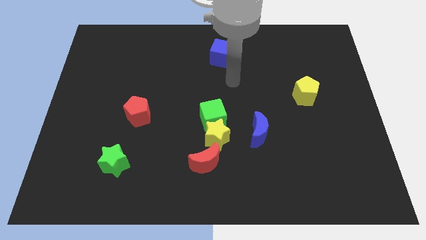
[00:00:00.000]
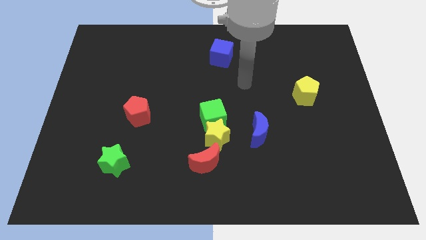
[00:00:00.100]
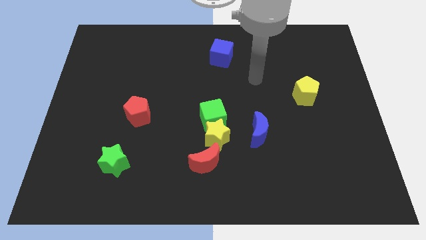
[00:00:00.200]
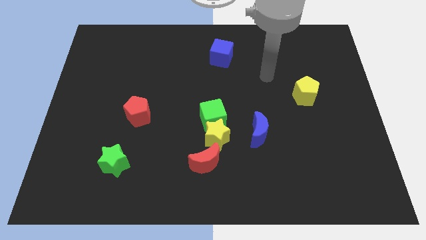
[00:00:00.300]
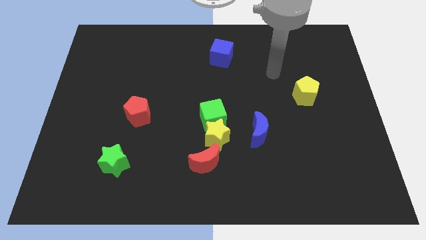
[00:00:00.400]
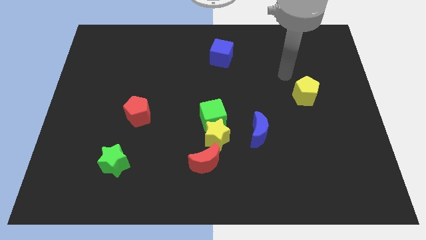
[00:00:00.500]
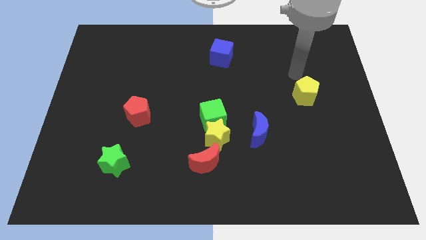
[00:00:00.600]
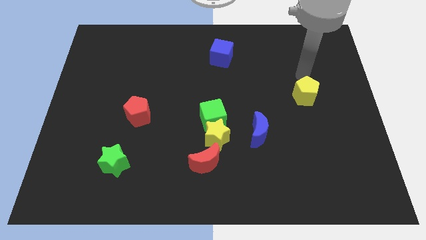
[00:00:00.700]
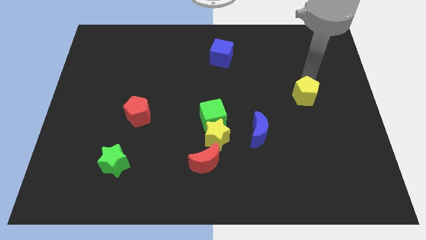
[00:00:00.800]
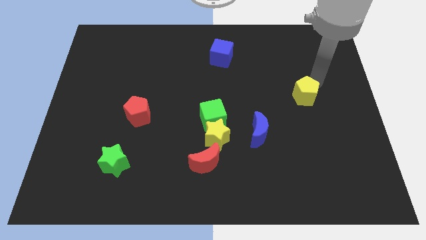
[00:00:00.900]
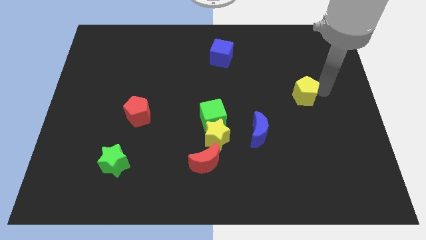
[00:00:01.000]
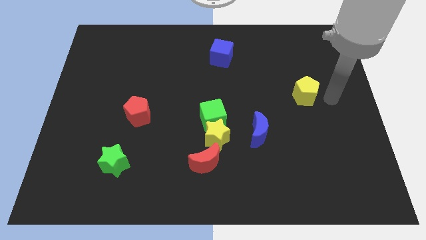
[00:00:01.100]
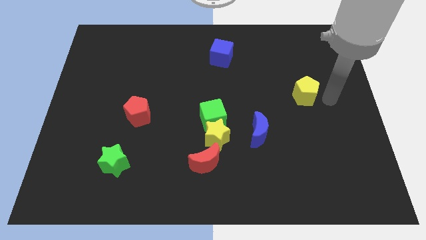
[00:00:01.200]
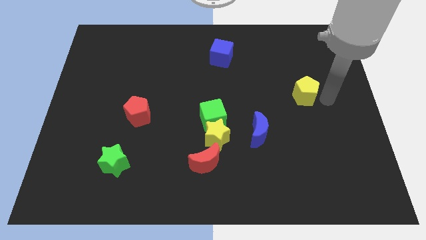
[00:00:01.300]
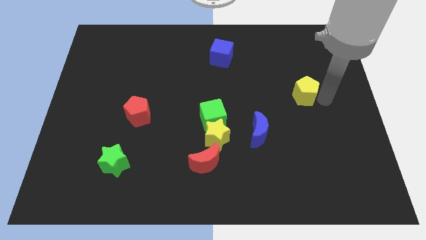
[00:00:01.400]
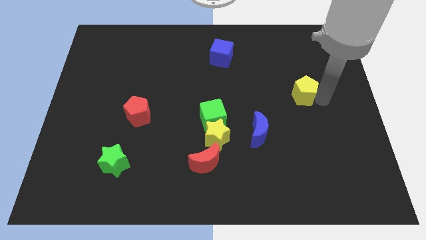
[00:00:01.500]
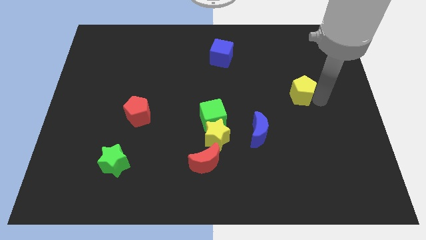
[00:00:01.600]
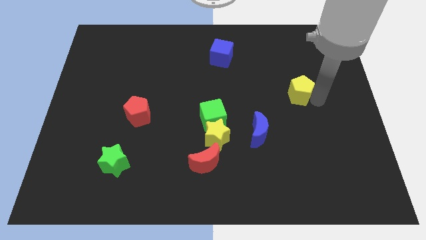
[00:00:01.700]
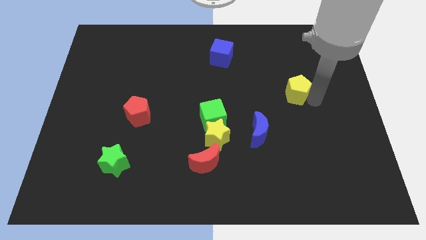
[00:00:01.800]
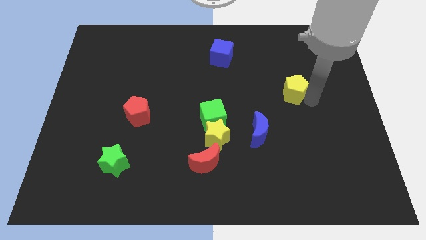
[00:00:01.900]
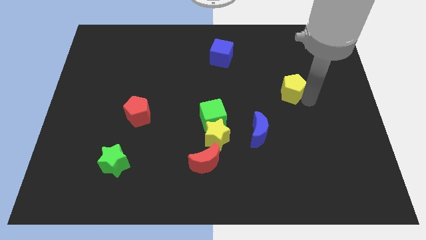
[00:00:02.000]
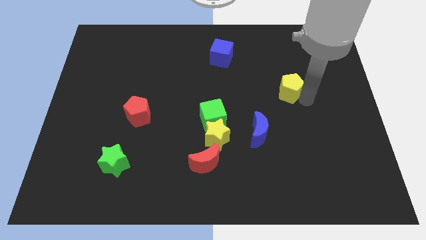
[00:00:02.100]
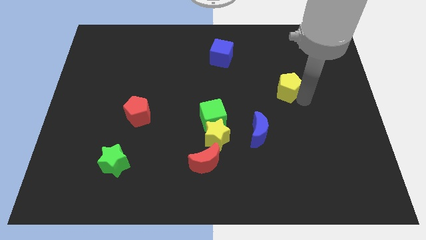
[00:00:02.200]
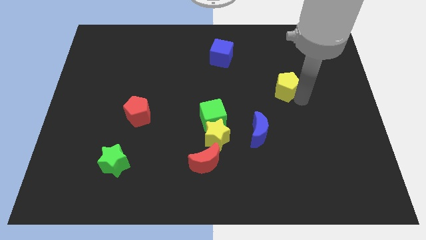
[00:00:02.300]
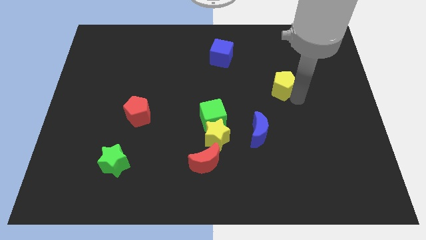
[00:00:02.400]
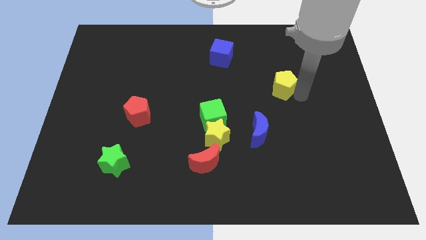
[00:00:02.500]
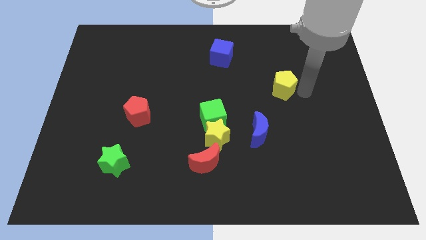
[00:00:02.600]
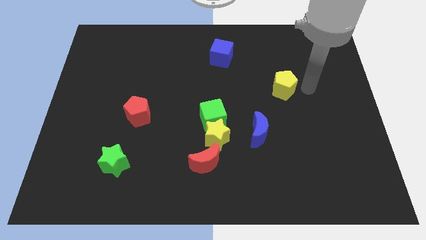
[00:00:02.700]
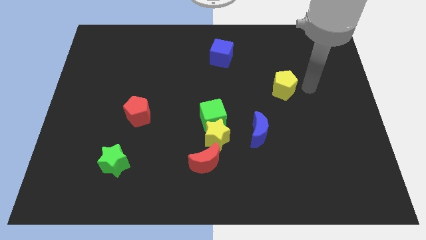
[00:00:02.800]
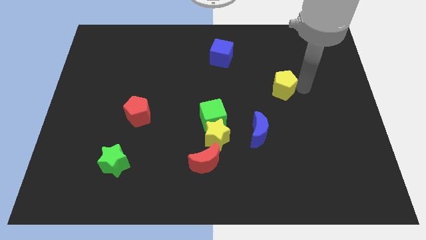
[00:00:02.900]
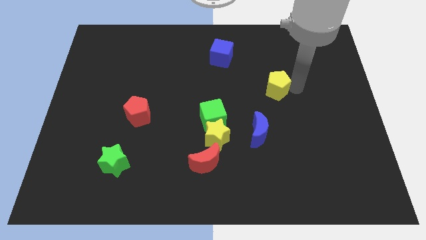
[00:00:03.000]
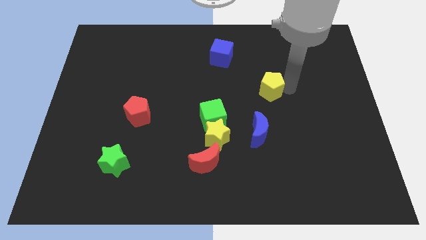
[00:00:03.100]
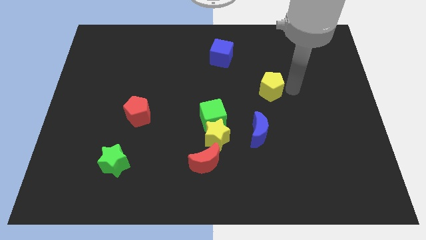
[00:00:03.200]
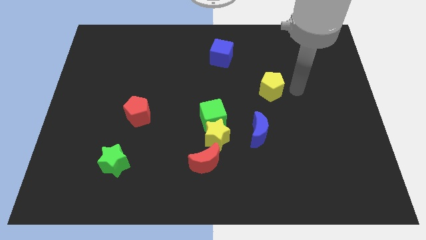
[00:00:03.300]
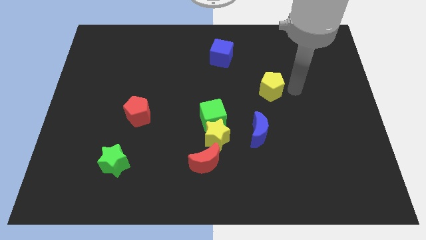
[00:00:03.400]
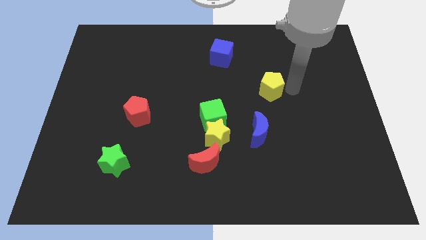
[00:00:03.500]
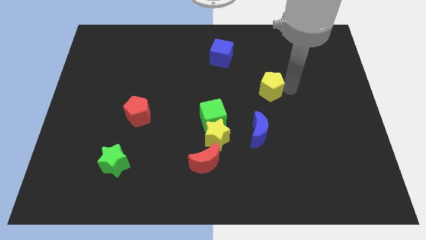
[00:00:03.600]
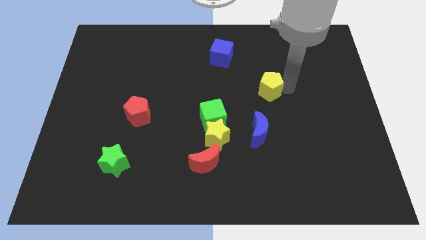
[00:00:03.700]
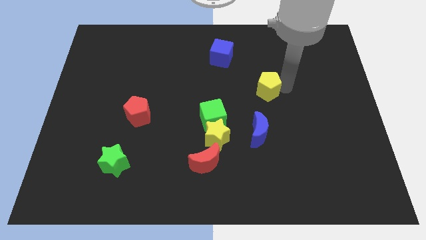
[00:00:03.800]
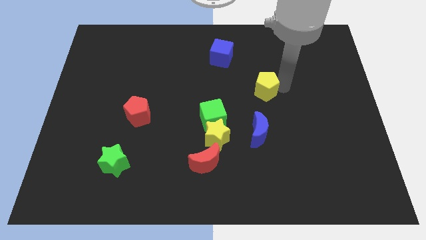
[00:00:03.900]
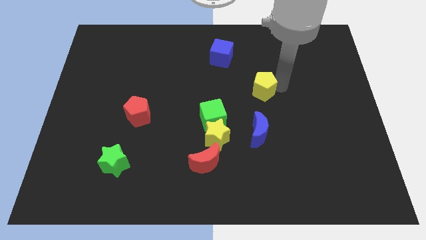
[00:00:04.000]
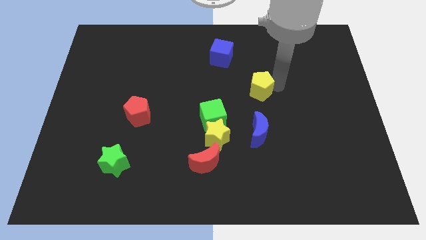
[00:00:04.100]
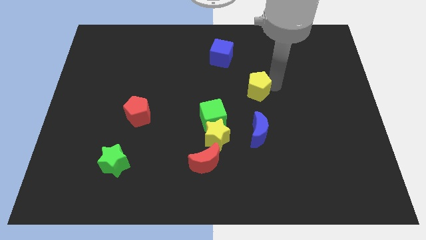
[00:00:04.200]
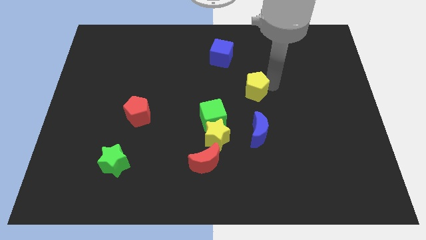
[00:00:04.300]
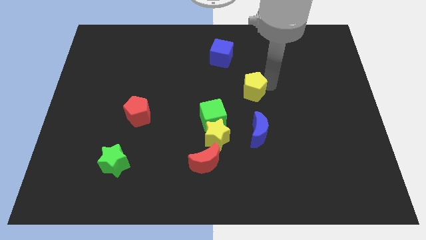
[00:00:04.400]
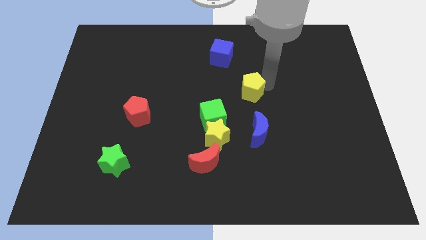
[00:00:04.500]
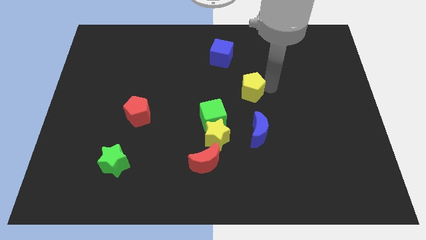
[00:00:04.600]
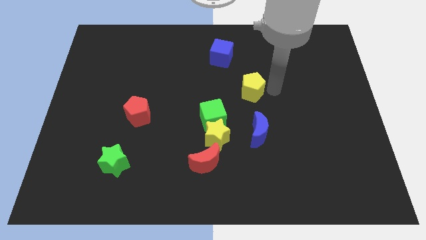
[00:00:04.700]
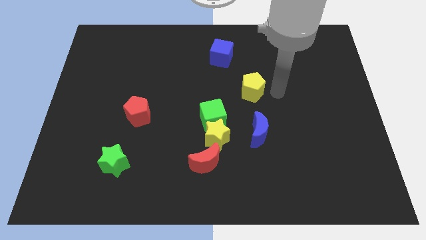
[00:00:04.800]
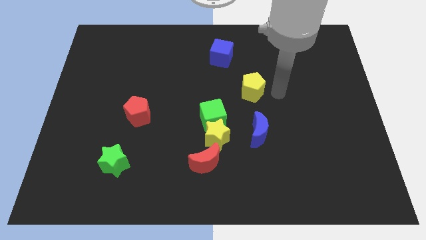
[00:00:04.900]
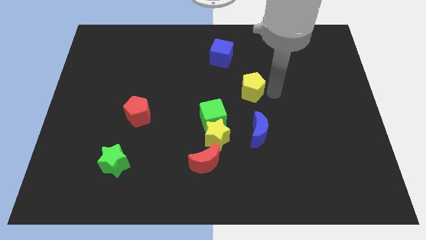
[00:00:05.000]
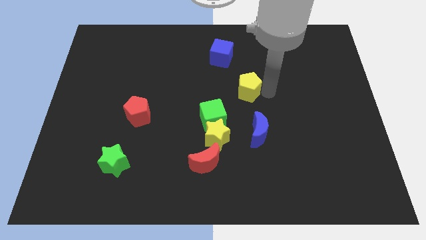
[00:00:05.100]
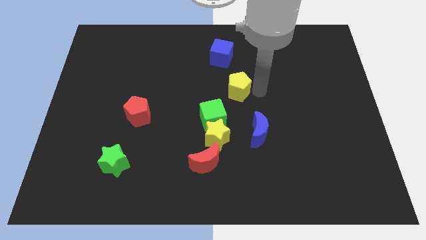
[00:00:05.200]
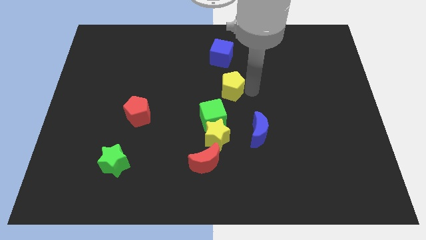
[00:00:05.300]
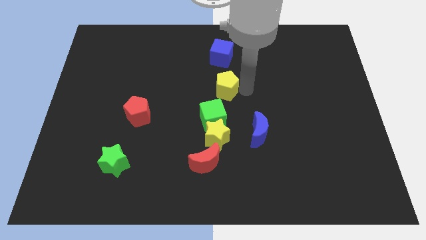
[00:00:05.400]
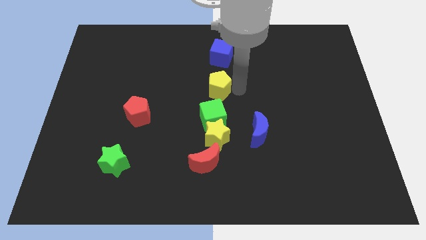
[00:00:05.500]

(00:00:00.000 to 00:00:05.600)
slide the yellow pentagon left

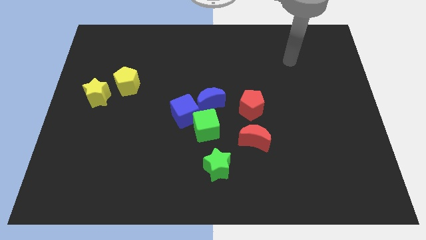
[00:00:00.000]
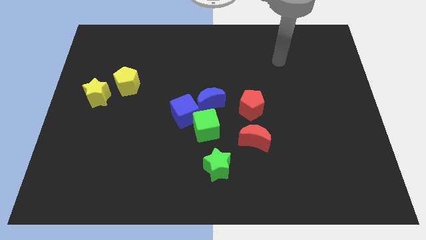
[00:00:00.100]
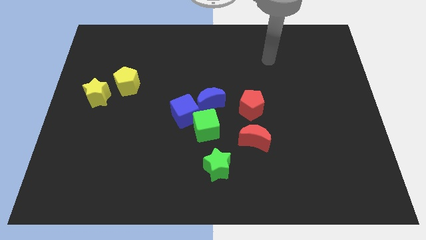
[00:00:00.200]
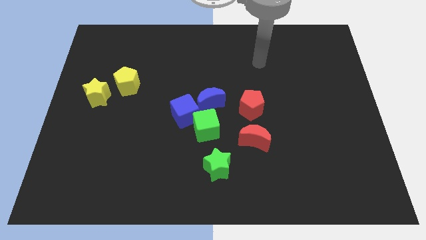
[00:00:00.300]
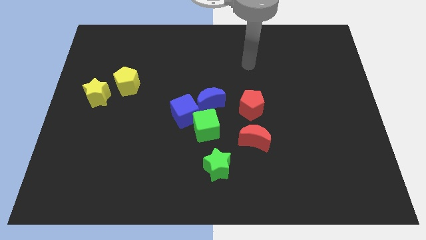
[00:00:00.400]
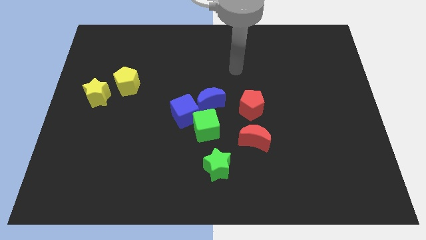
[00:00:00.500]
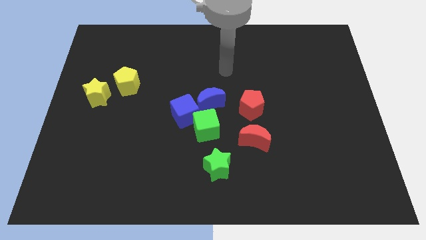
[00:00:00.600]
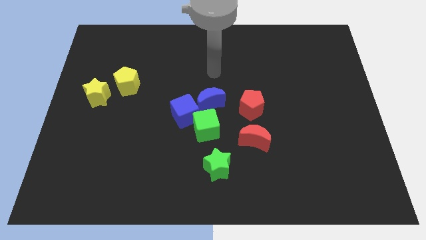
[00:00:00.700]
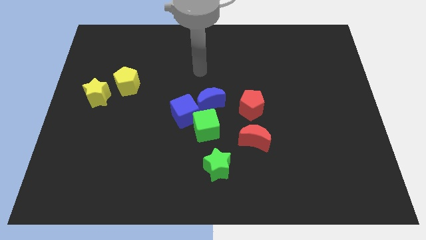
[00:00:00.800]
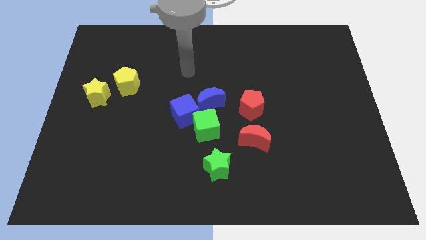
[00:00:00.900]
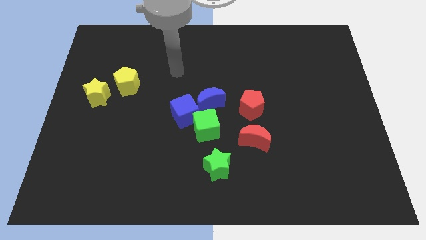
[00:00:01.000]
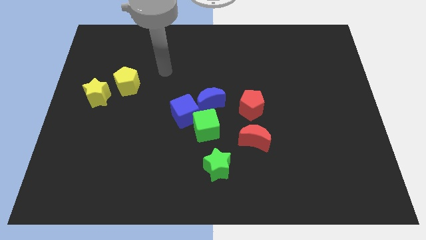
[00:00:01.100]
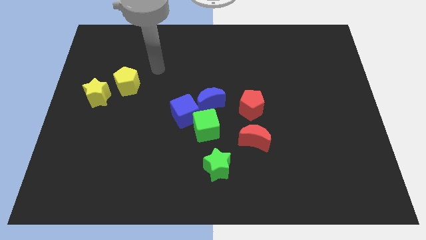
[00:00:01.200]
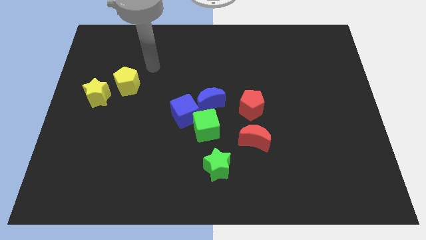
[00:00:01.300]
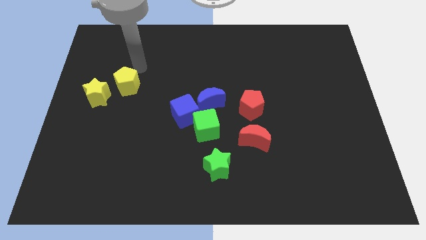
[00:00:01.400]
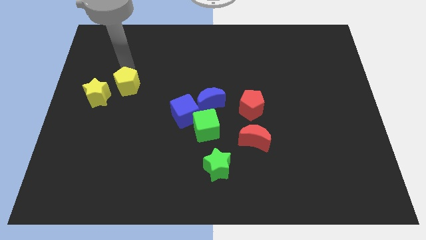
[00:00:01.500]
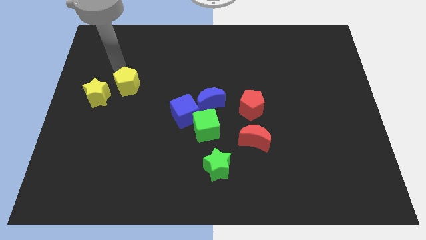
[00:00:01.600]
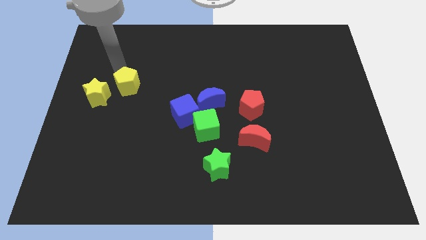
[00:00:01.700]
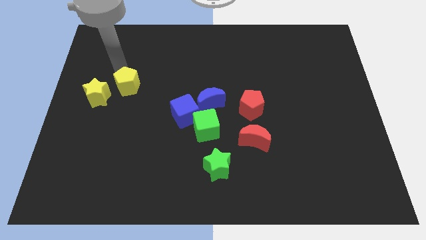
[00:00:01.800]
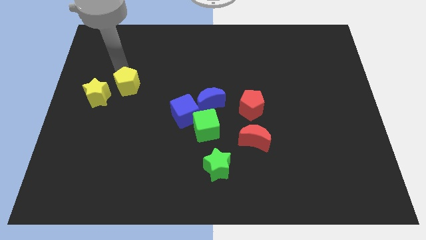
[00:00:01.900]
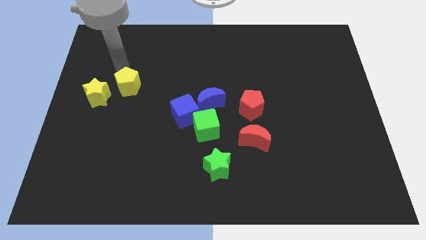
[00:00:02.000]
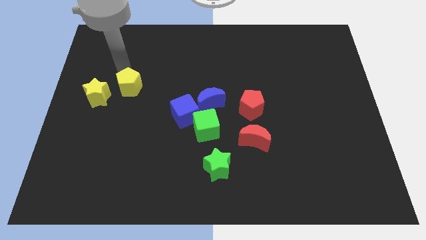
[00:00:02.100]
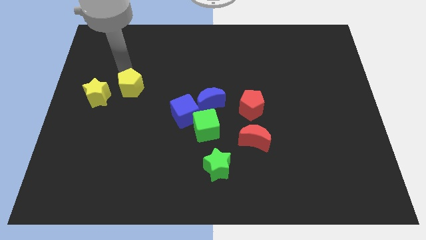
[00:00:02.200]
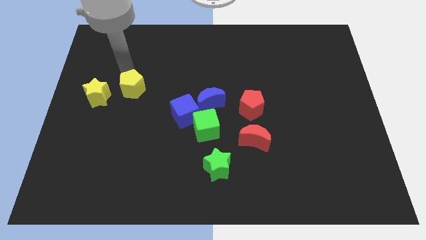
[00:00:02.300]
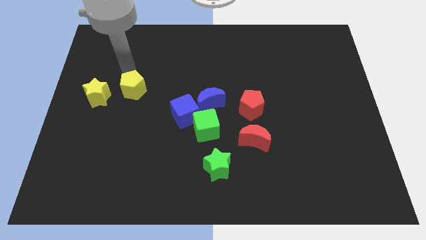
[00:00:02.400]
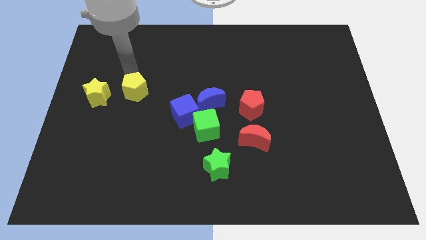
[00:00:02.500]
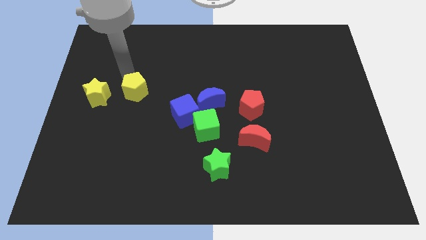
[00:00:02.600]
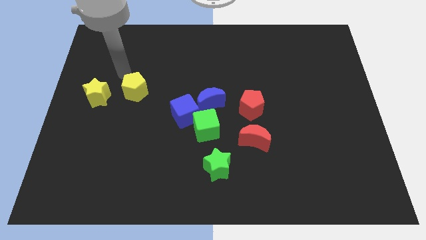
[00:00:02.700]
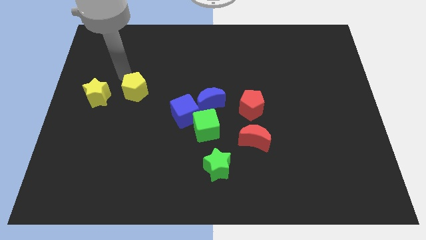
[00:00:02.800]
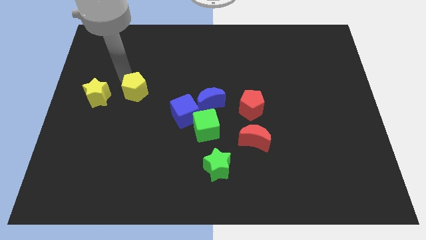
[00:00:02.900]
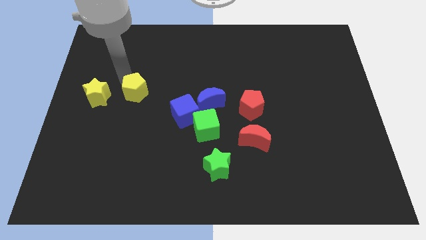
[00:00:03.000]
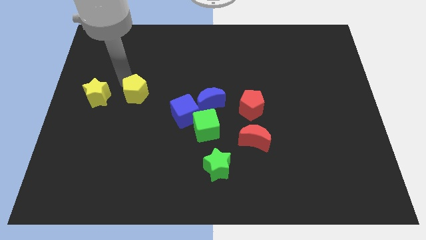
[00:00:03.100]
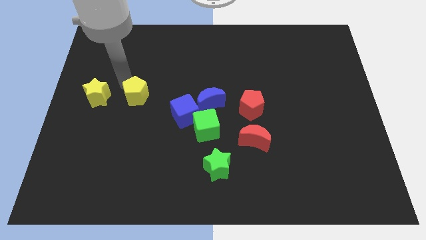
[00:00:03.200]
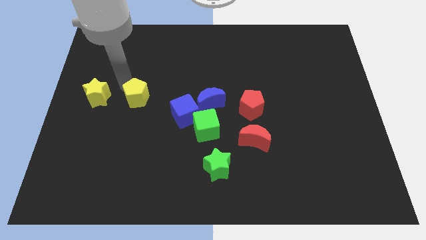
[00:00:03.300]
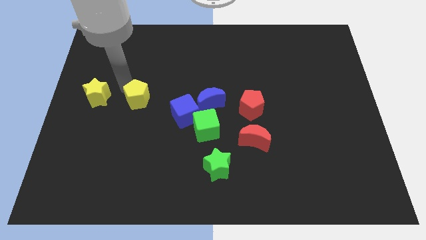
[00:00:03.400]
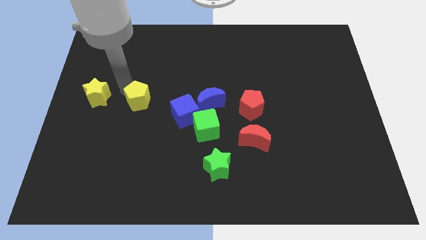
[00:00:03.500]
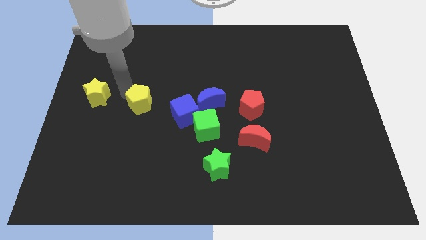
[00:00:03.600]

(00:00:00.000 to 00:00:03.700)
push the yellow pentagon slightly diagonally downwards and right
